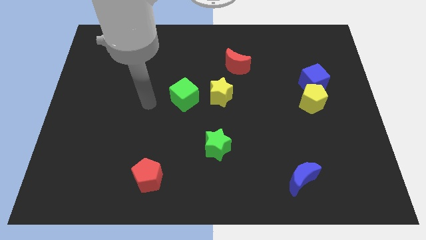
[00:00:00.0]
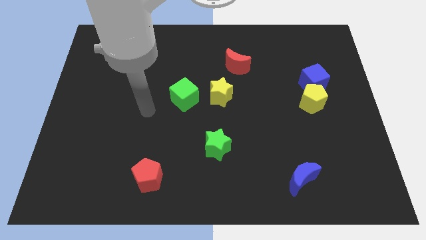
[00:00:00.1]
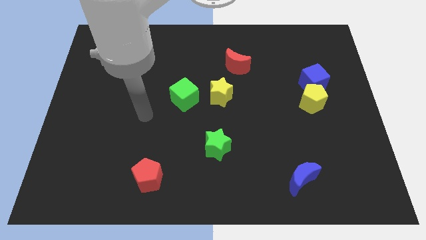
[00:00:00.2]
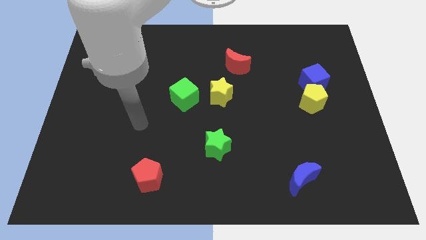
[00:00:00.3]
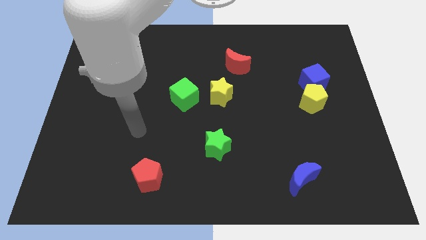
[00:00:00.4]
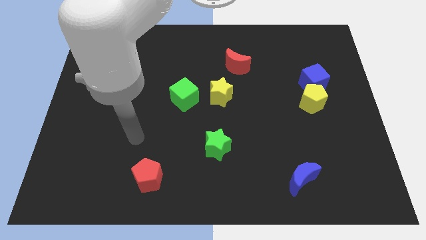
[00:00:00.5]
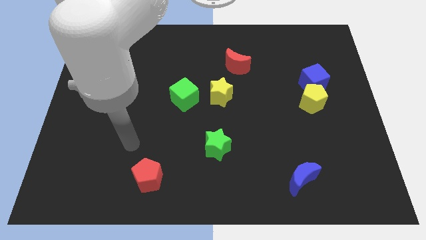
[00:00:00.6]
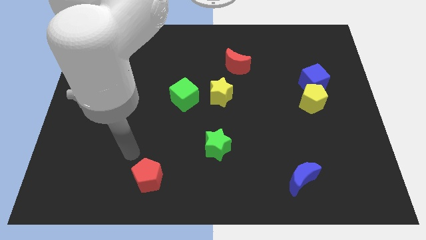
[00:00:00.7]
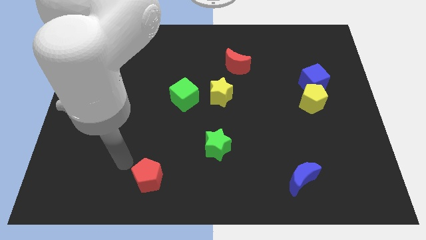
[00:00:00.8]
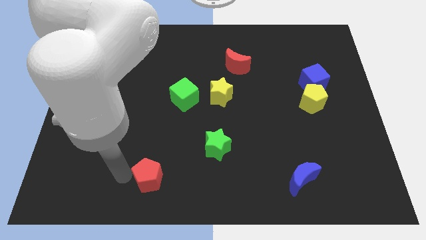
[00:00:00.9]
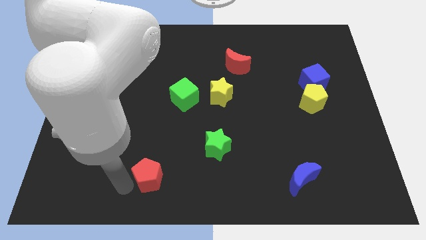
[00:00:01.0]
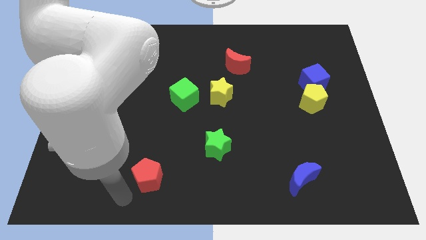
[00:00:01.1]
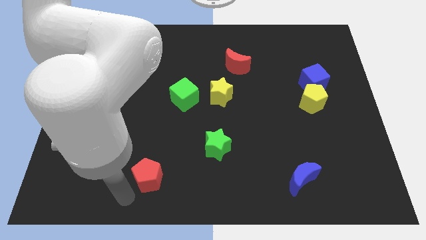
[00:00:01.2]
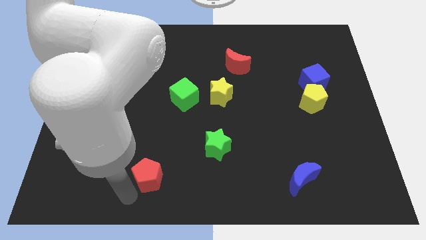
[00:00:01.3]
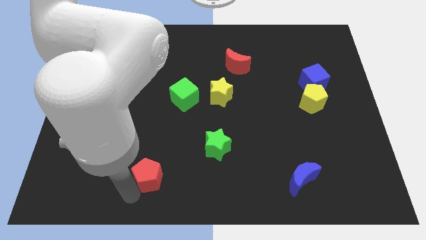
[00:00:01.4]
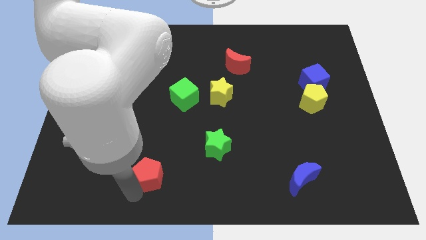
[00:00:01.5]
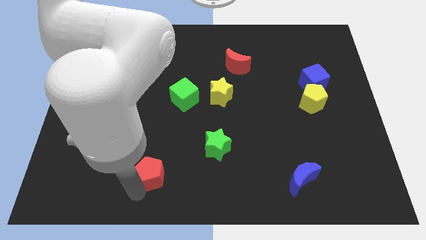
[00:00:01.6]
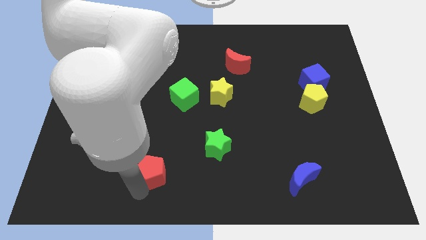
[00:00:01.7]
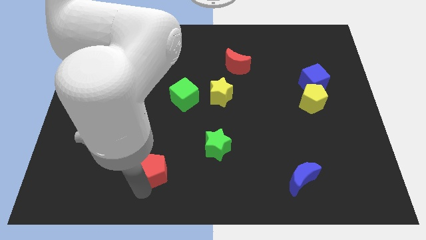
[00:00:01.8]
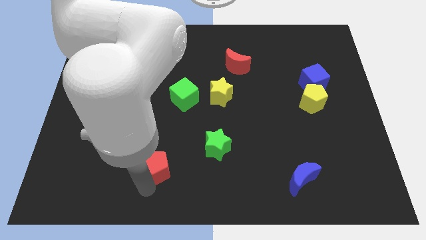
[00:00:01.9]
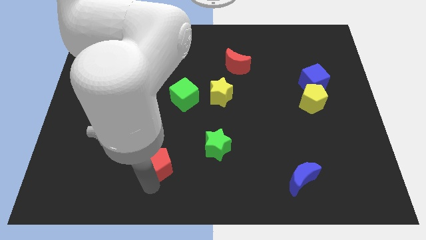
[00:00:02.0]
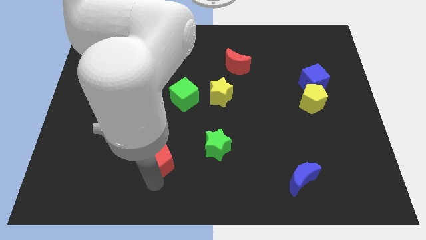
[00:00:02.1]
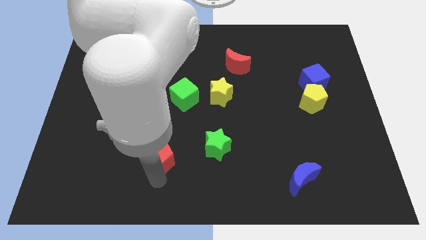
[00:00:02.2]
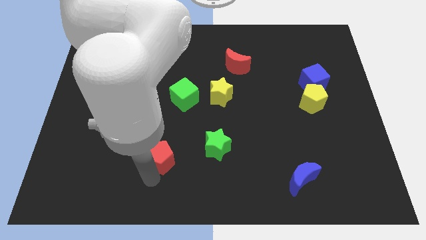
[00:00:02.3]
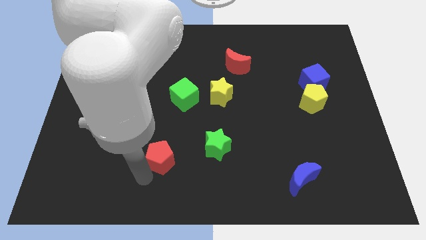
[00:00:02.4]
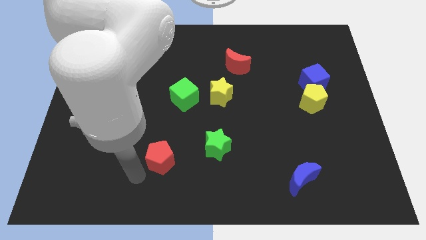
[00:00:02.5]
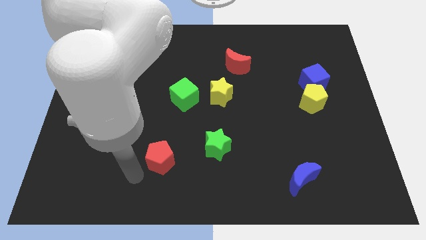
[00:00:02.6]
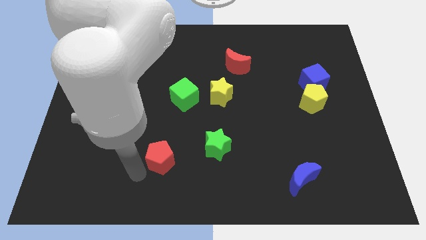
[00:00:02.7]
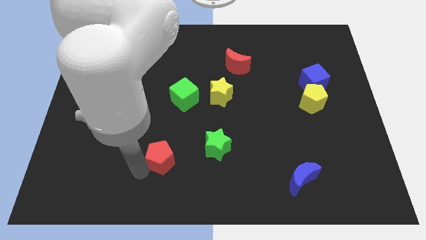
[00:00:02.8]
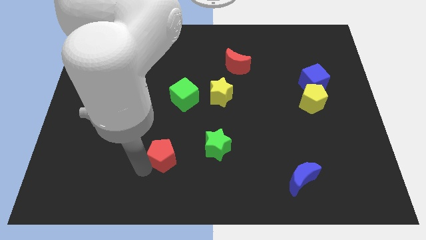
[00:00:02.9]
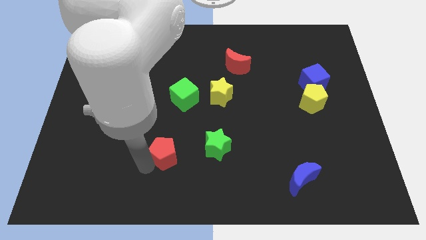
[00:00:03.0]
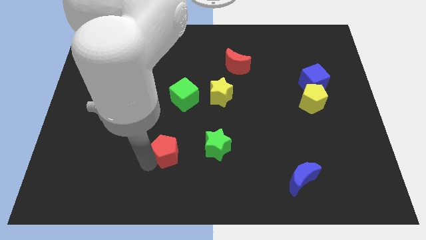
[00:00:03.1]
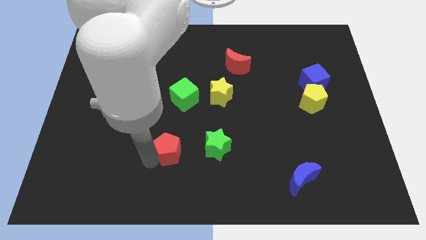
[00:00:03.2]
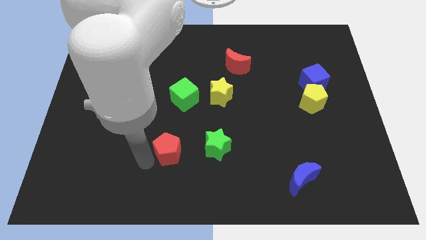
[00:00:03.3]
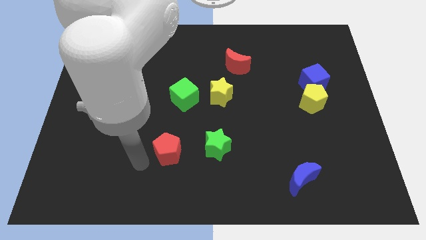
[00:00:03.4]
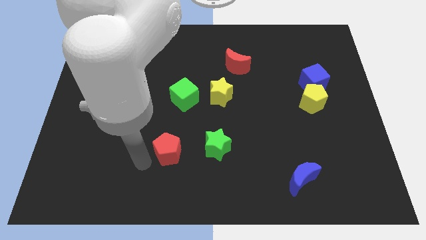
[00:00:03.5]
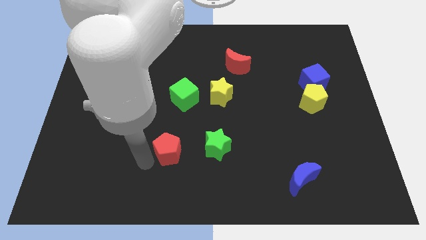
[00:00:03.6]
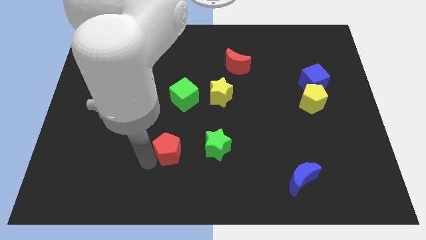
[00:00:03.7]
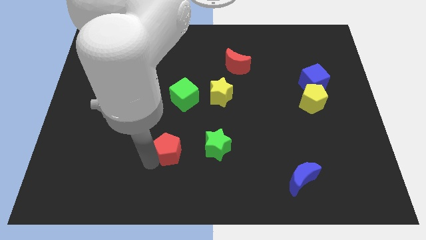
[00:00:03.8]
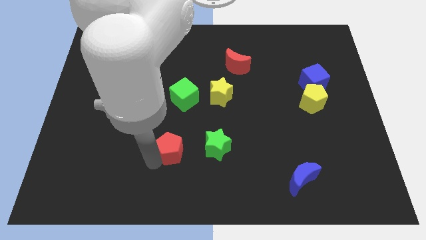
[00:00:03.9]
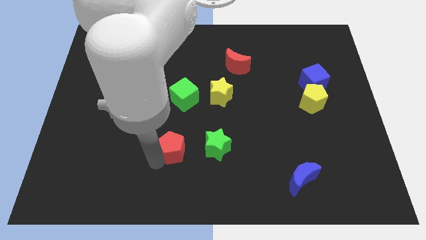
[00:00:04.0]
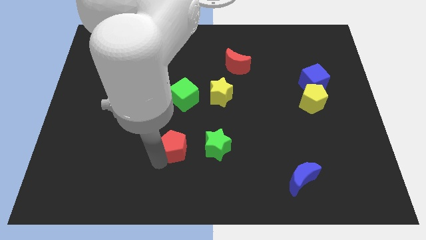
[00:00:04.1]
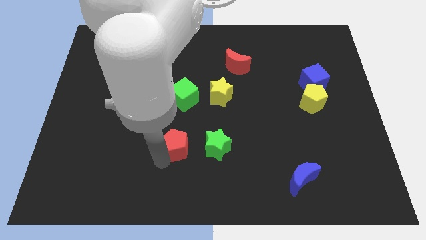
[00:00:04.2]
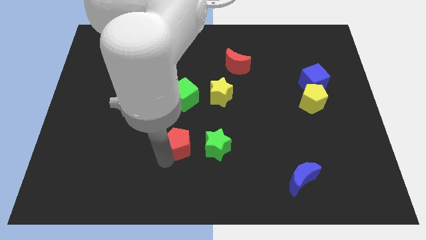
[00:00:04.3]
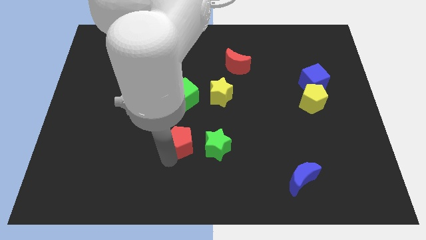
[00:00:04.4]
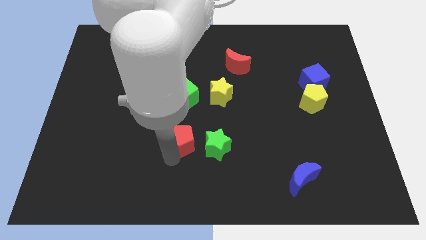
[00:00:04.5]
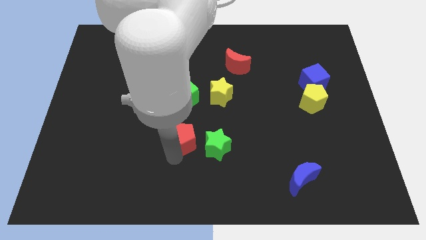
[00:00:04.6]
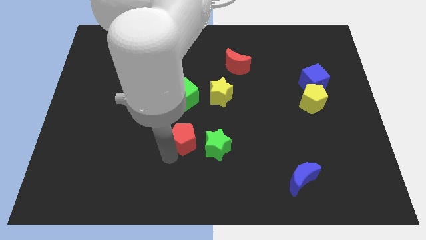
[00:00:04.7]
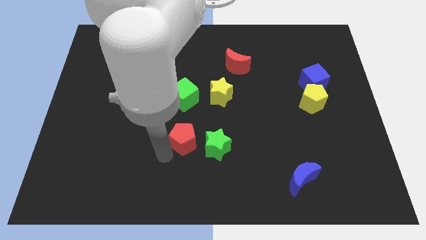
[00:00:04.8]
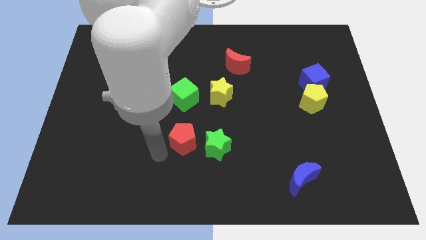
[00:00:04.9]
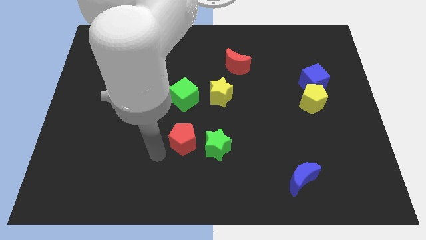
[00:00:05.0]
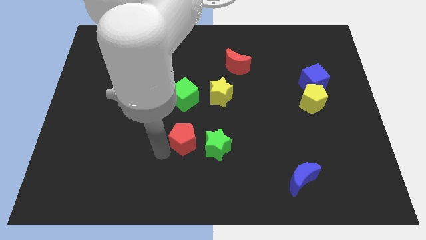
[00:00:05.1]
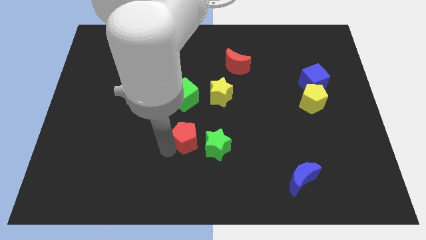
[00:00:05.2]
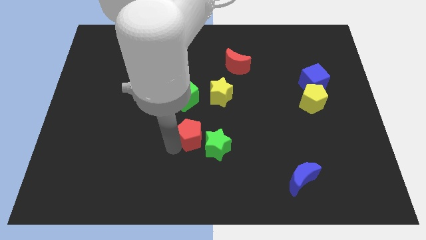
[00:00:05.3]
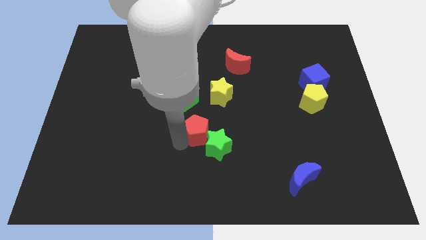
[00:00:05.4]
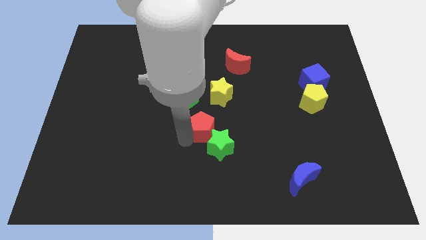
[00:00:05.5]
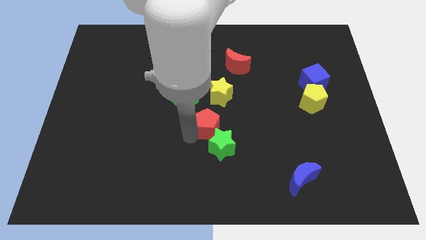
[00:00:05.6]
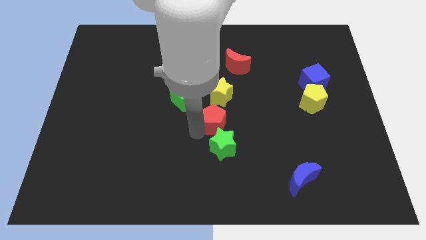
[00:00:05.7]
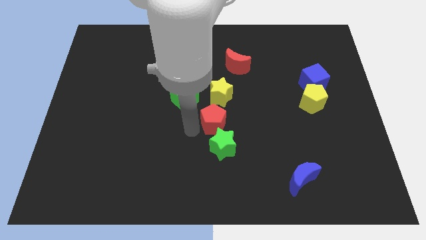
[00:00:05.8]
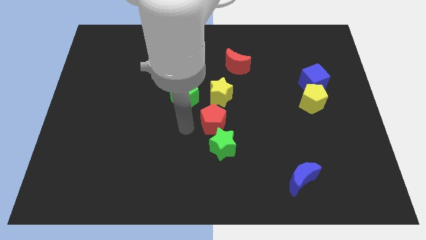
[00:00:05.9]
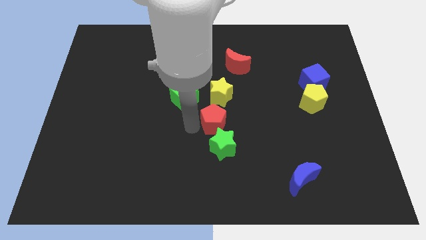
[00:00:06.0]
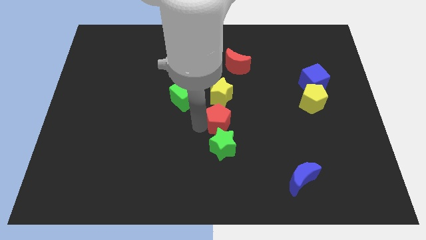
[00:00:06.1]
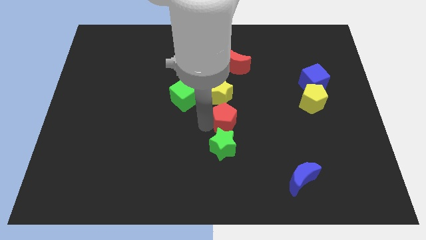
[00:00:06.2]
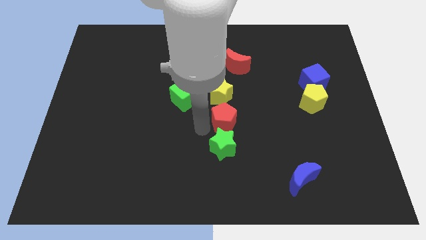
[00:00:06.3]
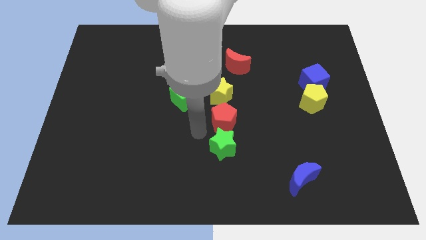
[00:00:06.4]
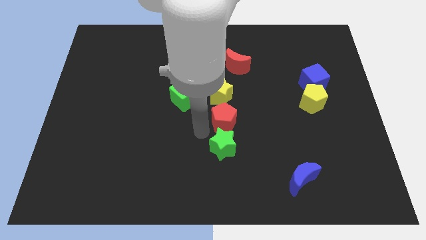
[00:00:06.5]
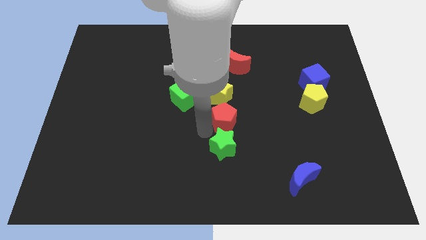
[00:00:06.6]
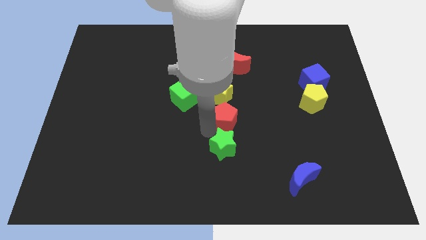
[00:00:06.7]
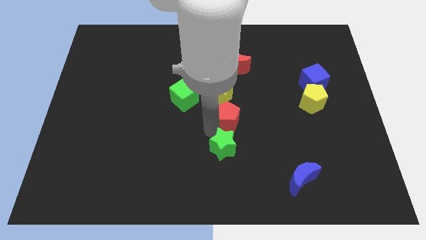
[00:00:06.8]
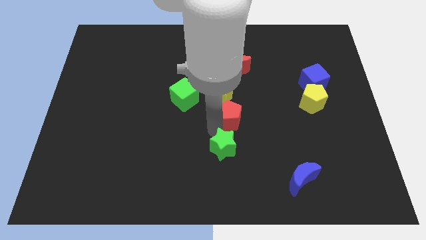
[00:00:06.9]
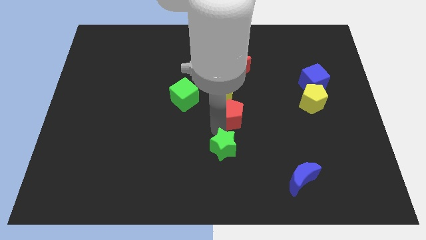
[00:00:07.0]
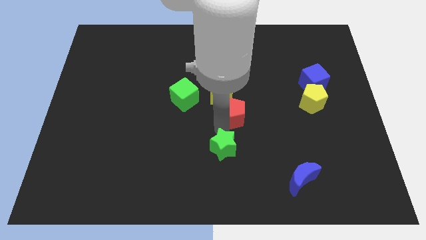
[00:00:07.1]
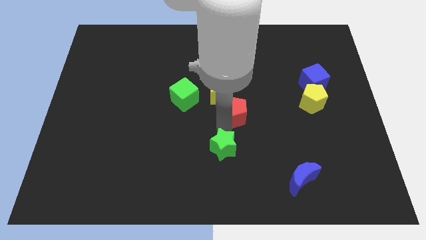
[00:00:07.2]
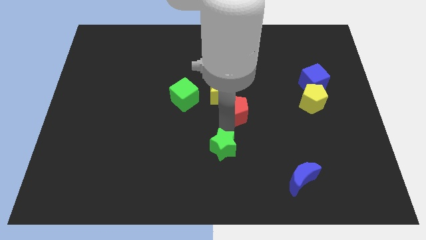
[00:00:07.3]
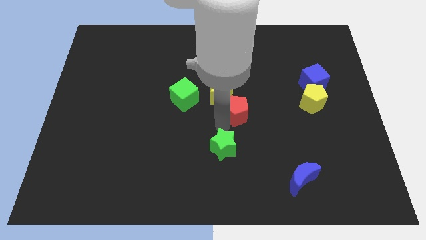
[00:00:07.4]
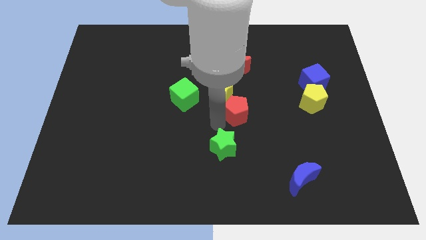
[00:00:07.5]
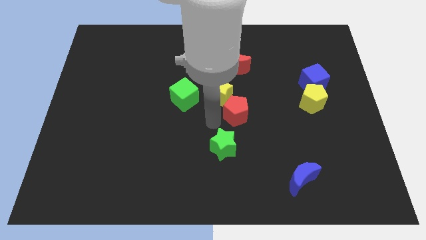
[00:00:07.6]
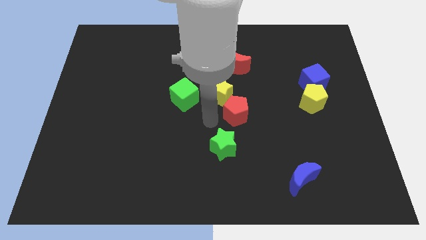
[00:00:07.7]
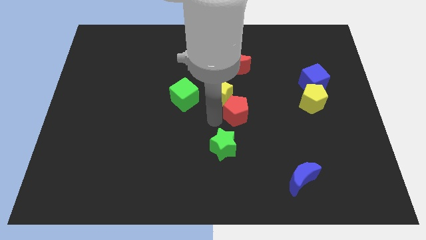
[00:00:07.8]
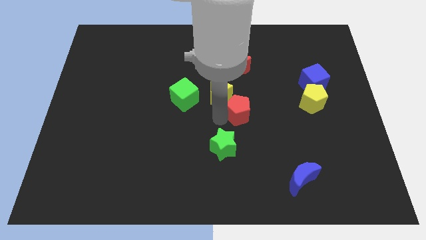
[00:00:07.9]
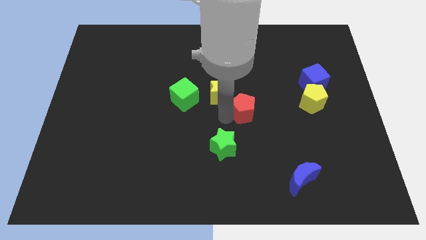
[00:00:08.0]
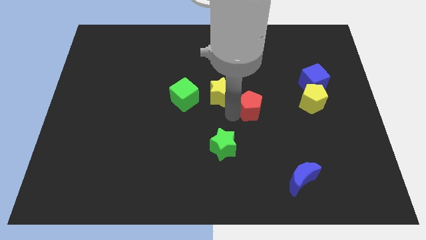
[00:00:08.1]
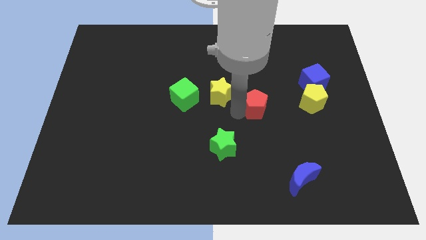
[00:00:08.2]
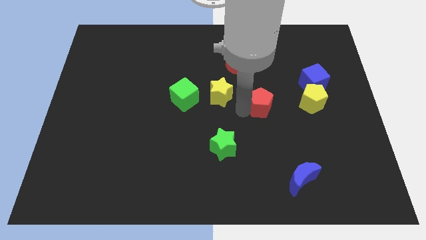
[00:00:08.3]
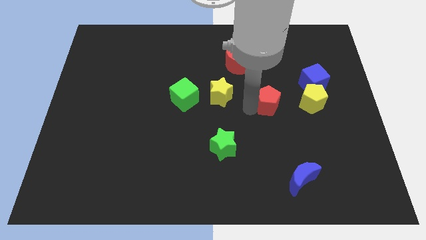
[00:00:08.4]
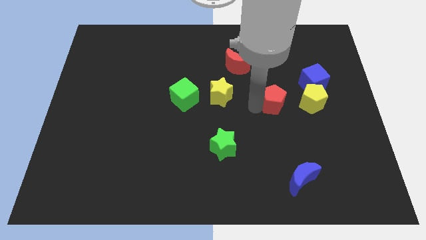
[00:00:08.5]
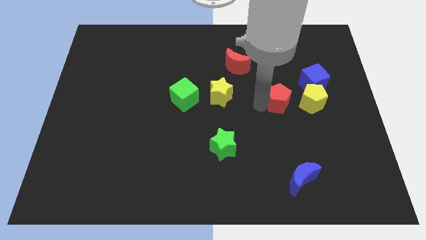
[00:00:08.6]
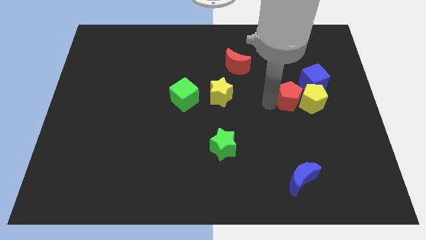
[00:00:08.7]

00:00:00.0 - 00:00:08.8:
slide the red pentagon to the yellow pentagon
